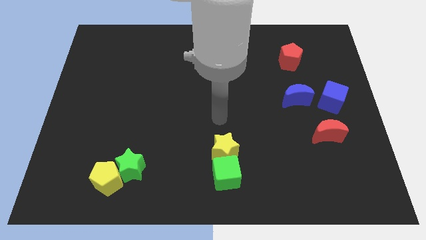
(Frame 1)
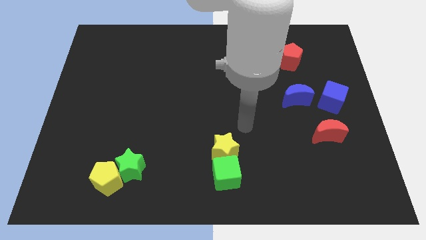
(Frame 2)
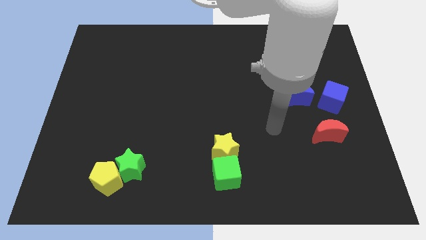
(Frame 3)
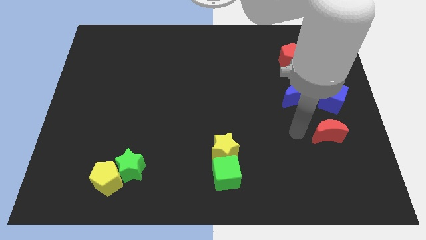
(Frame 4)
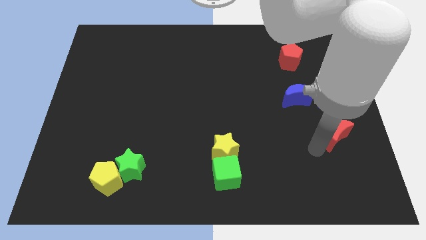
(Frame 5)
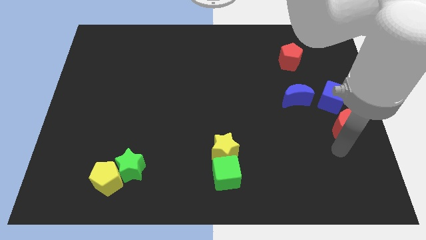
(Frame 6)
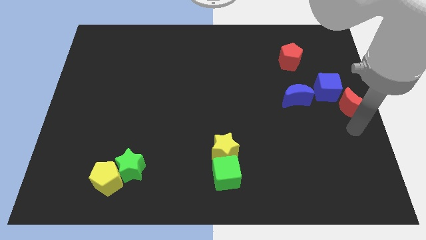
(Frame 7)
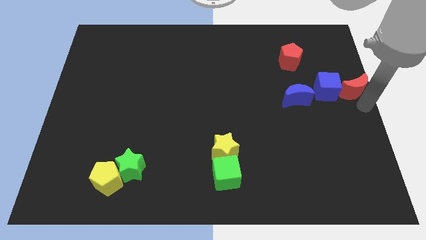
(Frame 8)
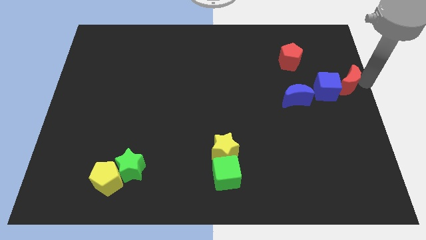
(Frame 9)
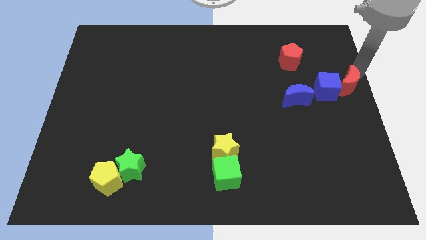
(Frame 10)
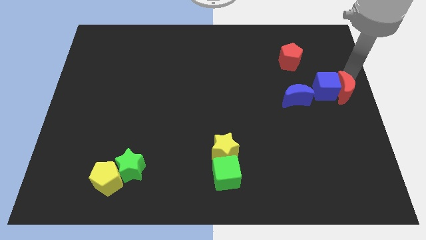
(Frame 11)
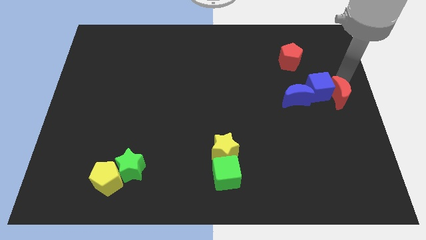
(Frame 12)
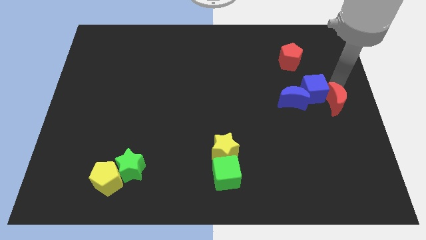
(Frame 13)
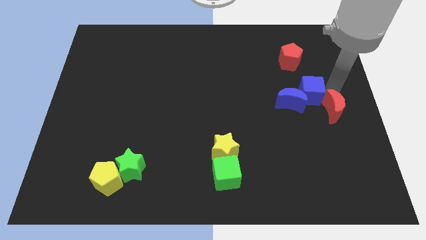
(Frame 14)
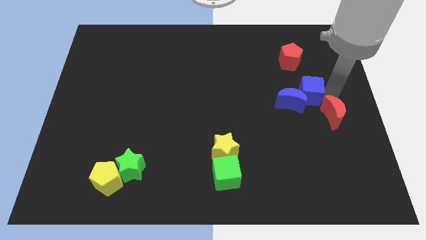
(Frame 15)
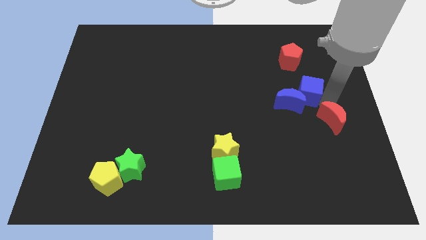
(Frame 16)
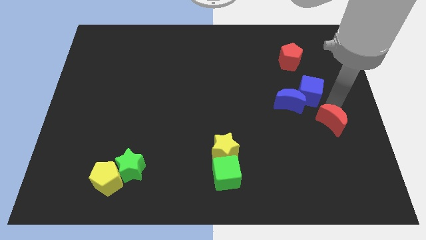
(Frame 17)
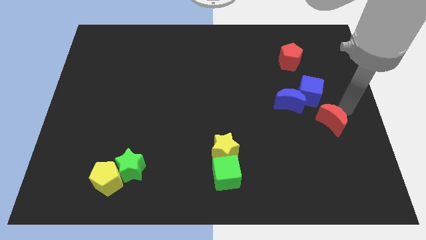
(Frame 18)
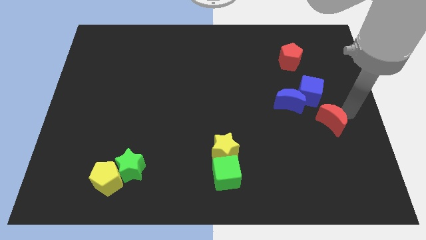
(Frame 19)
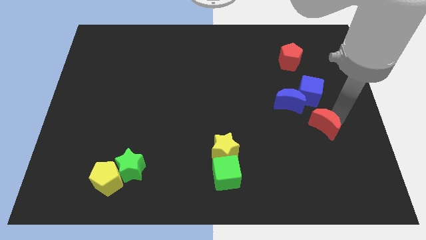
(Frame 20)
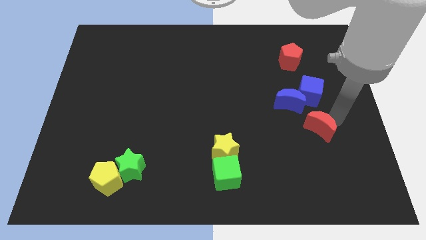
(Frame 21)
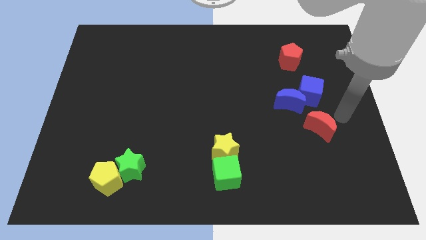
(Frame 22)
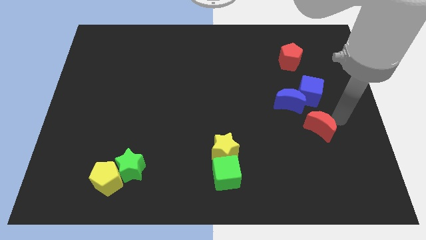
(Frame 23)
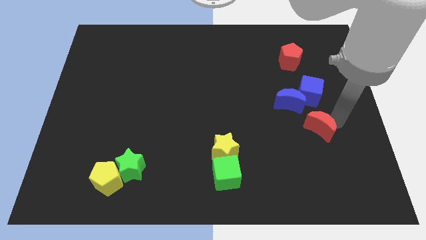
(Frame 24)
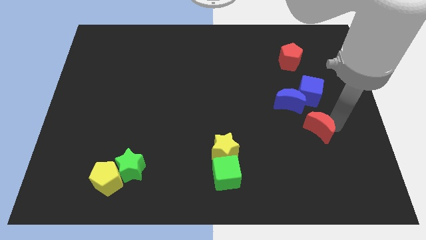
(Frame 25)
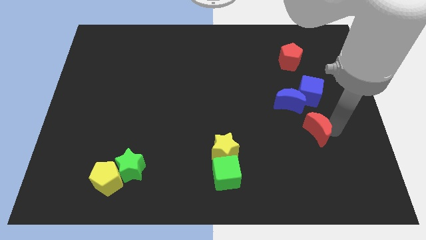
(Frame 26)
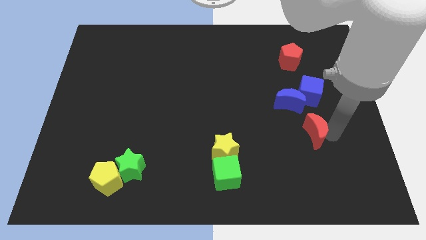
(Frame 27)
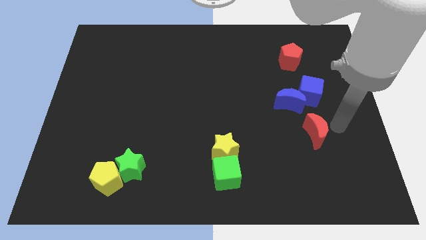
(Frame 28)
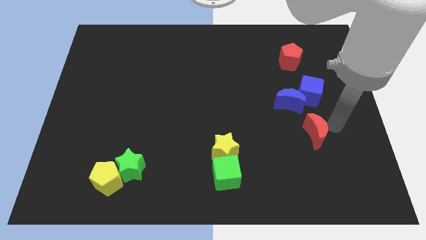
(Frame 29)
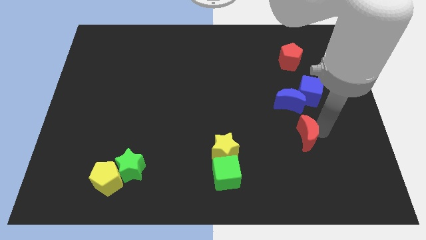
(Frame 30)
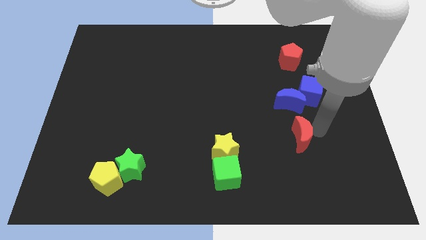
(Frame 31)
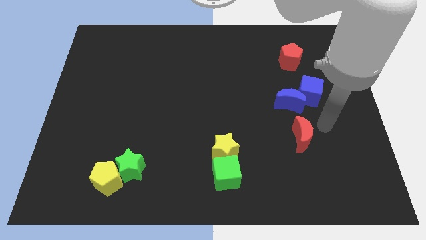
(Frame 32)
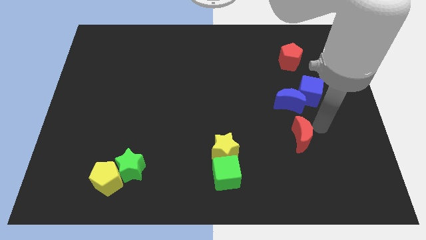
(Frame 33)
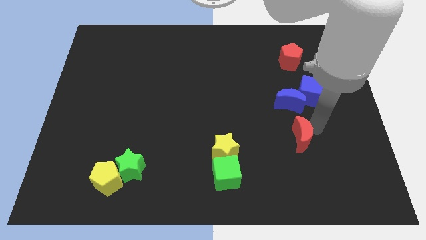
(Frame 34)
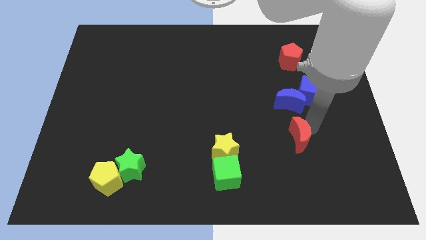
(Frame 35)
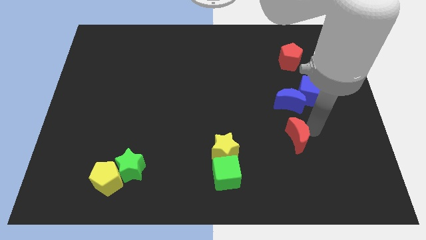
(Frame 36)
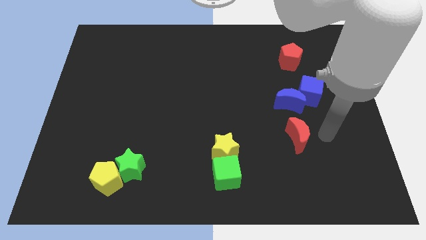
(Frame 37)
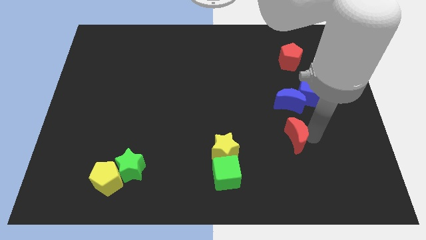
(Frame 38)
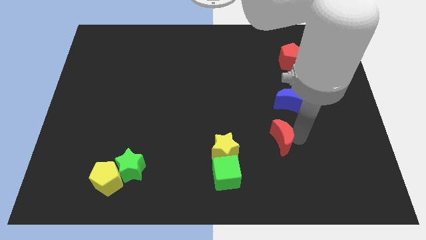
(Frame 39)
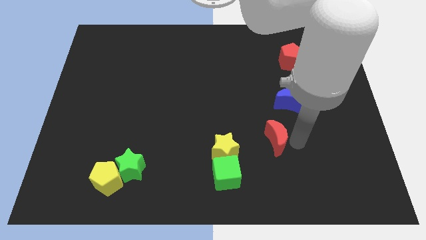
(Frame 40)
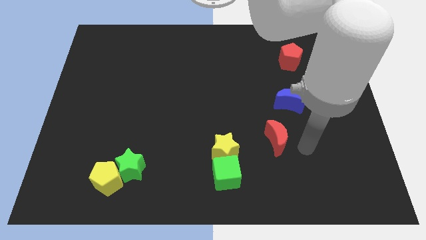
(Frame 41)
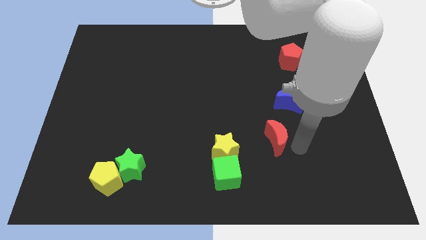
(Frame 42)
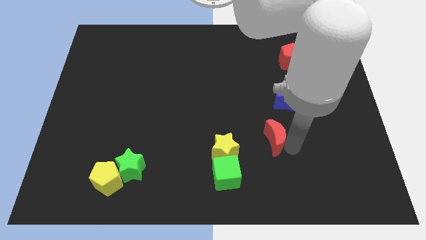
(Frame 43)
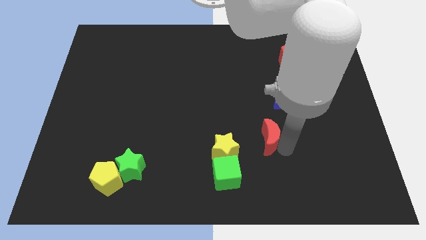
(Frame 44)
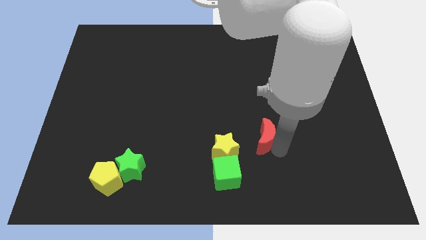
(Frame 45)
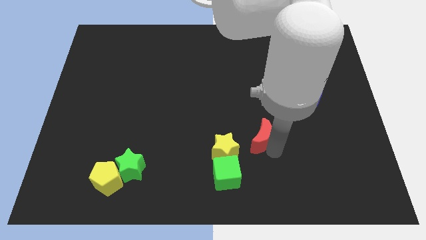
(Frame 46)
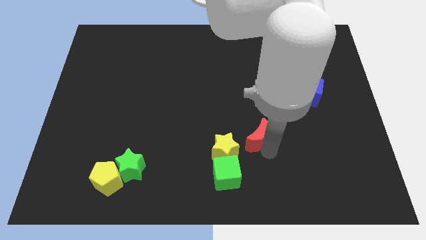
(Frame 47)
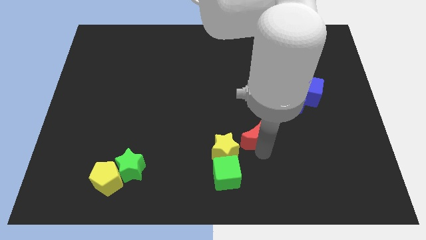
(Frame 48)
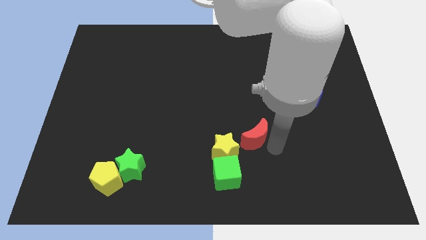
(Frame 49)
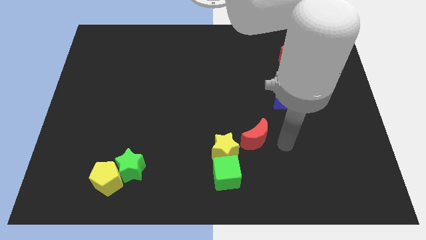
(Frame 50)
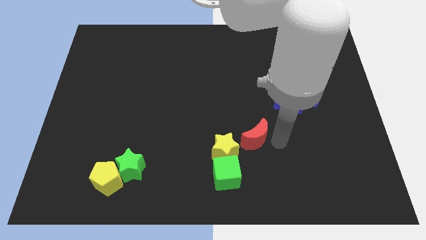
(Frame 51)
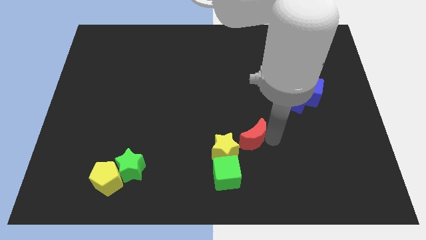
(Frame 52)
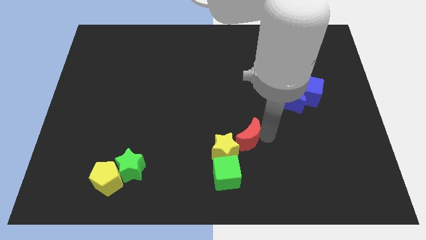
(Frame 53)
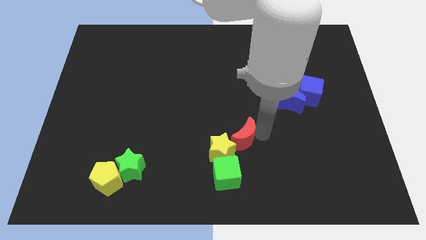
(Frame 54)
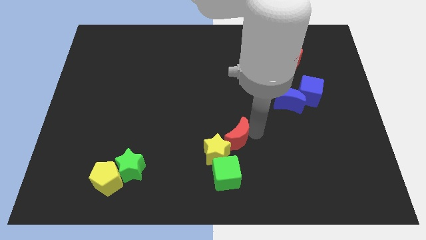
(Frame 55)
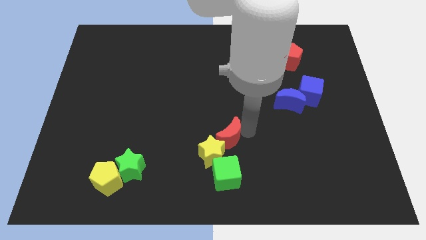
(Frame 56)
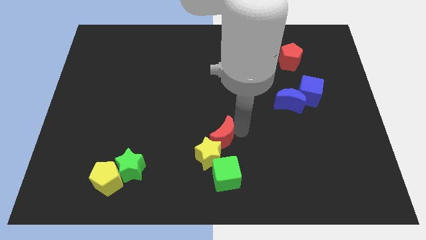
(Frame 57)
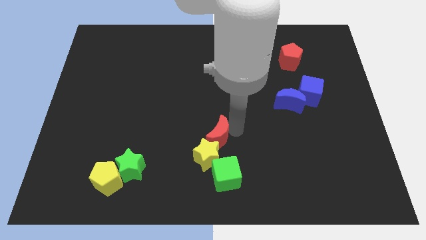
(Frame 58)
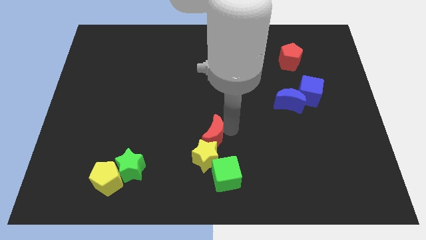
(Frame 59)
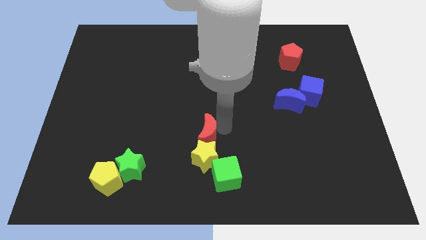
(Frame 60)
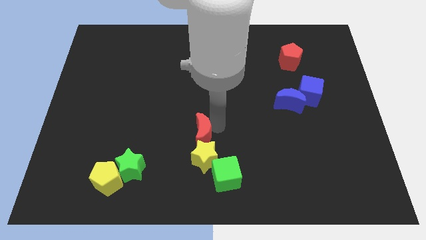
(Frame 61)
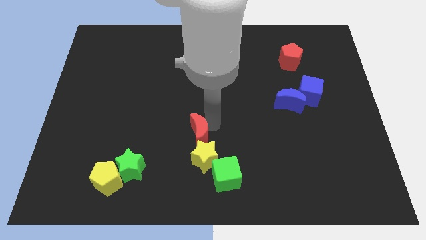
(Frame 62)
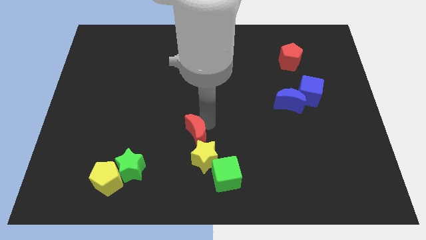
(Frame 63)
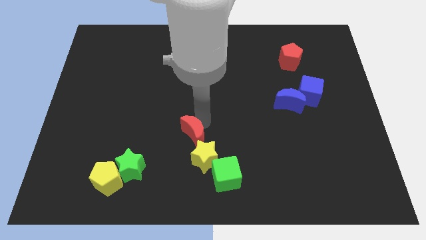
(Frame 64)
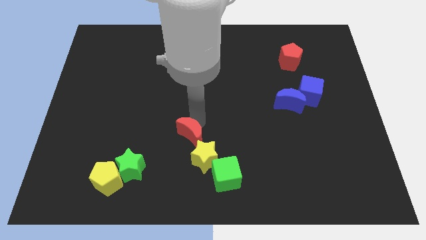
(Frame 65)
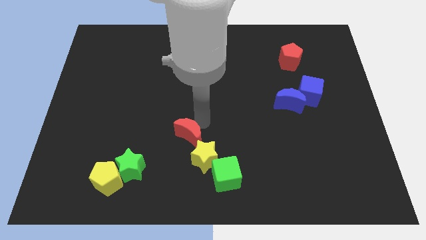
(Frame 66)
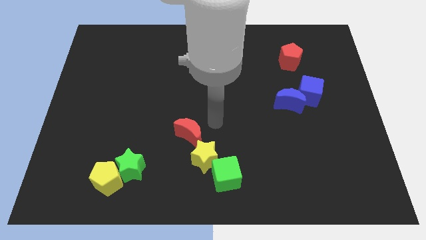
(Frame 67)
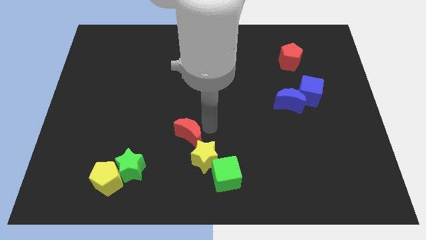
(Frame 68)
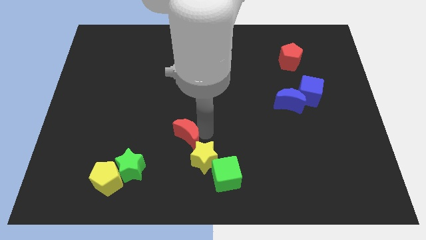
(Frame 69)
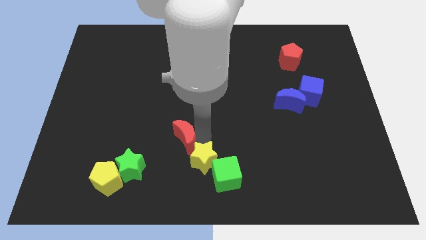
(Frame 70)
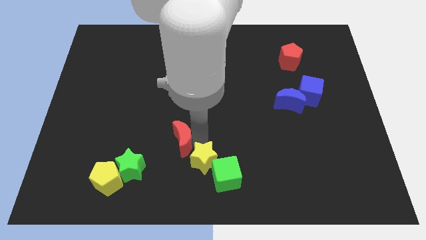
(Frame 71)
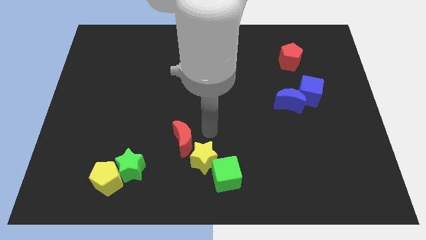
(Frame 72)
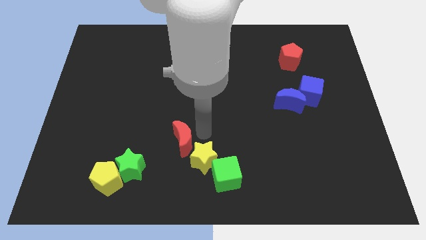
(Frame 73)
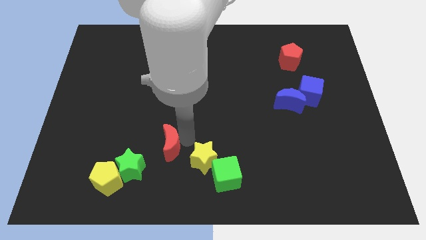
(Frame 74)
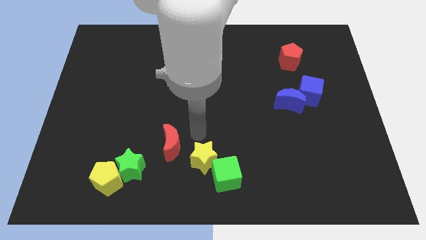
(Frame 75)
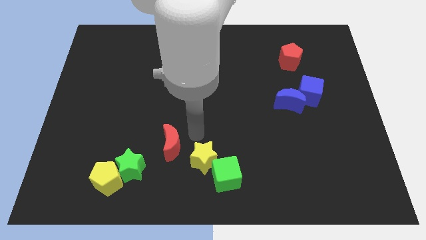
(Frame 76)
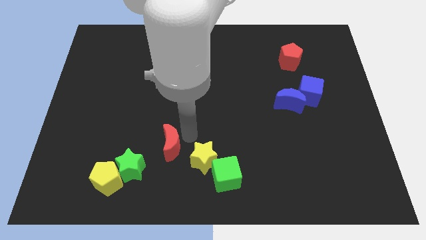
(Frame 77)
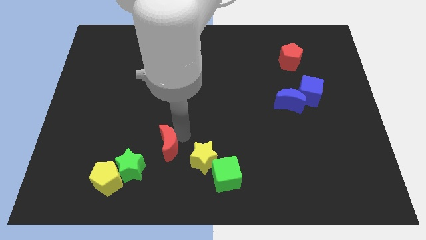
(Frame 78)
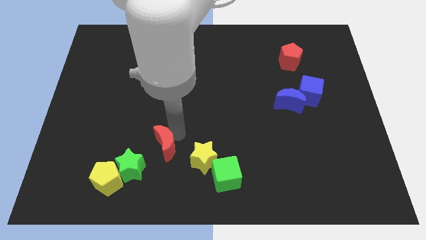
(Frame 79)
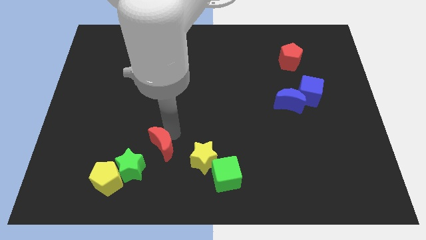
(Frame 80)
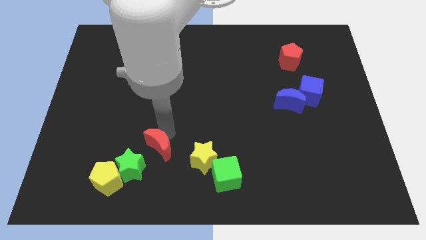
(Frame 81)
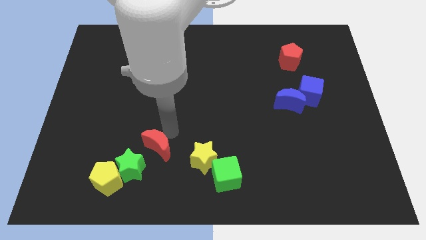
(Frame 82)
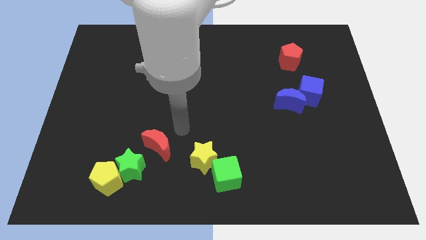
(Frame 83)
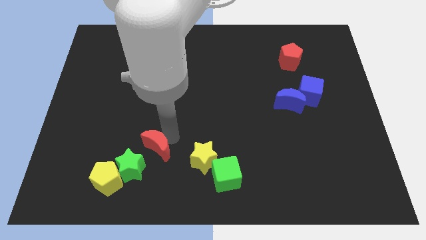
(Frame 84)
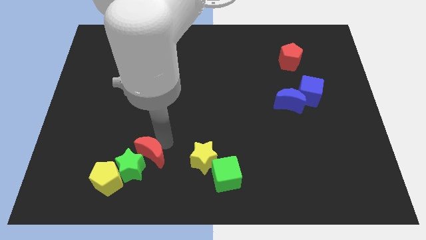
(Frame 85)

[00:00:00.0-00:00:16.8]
move the red moon next to the green star
